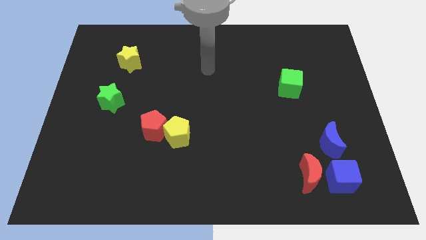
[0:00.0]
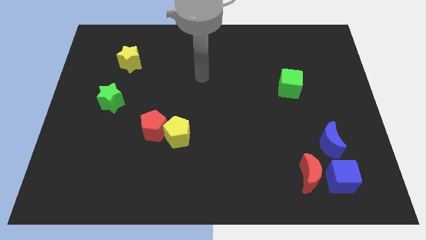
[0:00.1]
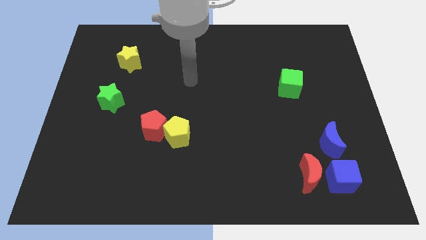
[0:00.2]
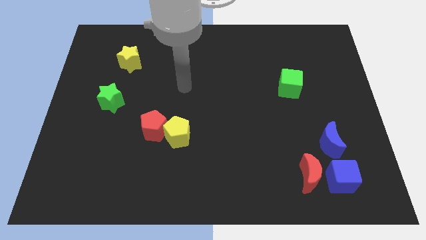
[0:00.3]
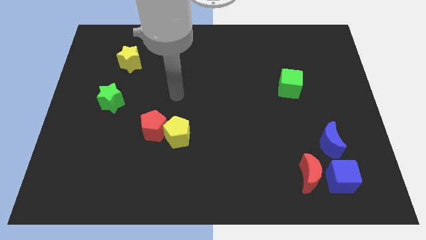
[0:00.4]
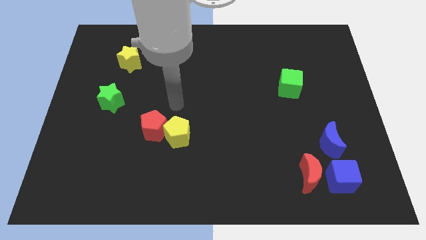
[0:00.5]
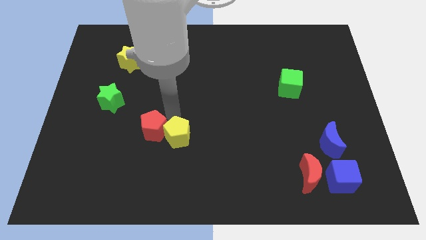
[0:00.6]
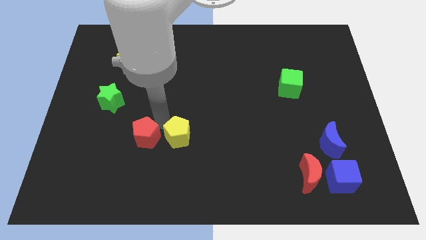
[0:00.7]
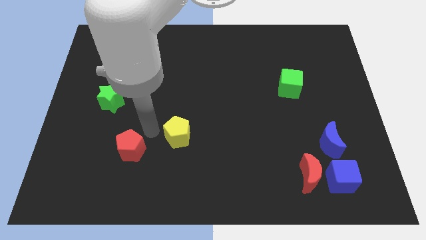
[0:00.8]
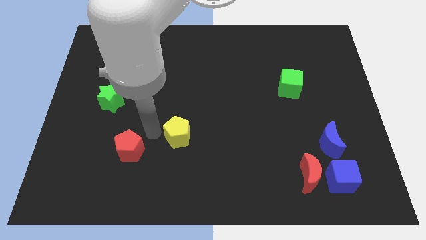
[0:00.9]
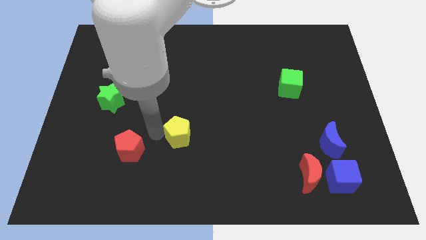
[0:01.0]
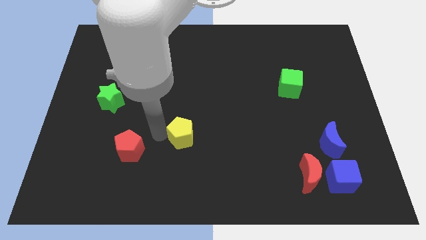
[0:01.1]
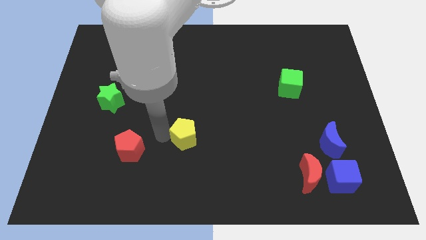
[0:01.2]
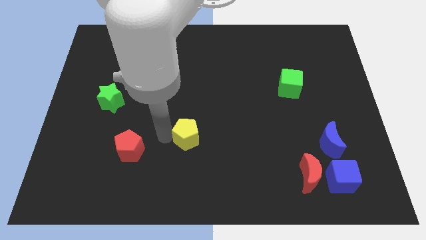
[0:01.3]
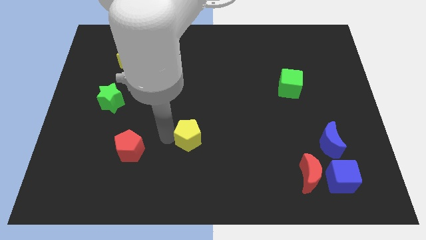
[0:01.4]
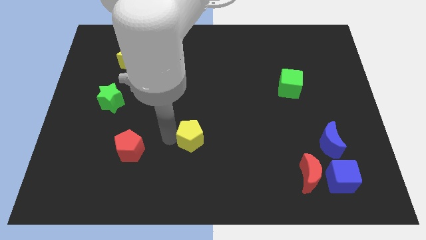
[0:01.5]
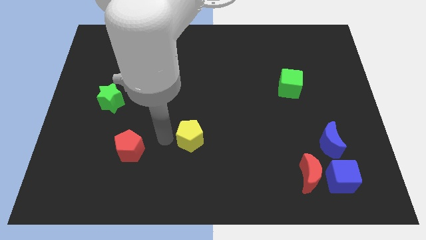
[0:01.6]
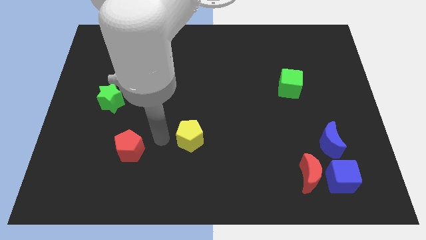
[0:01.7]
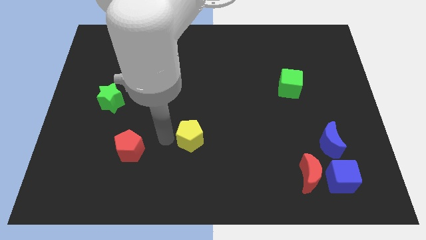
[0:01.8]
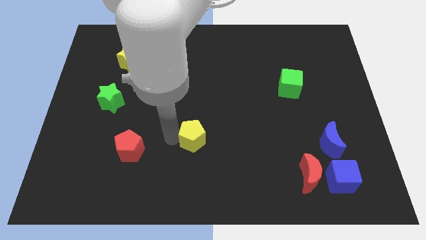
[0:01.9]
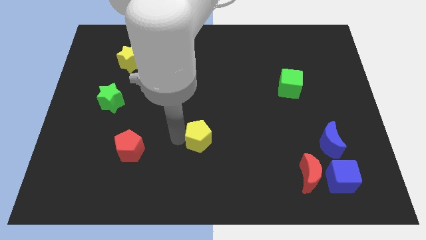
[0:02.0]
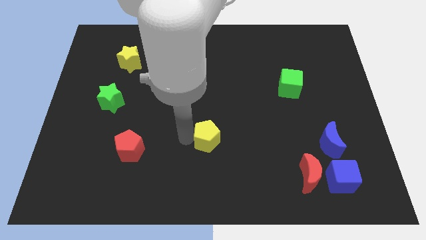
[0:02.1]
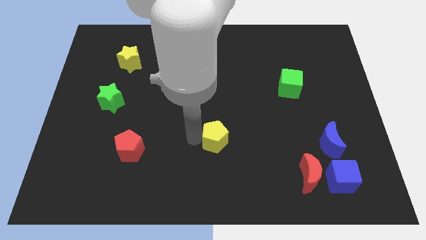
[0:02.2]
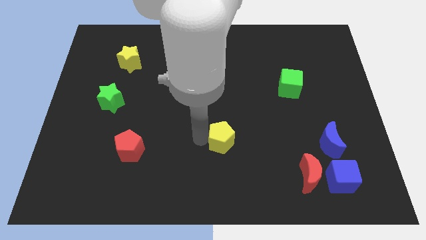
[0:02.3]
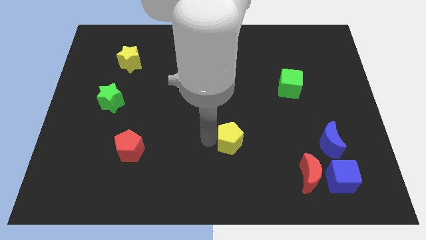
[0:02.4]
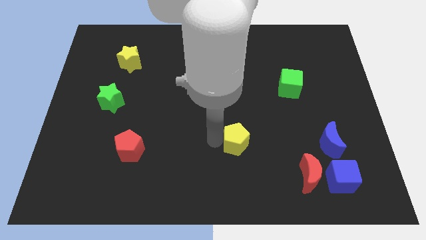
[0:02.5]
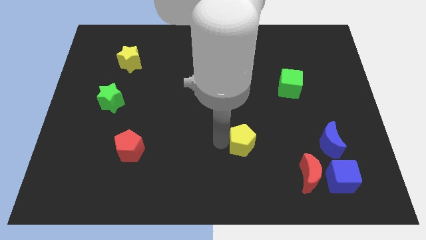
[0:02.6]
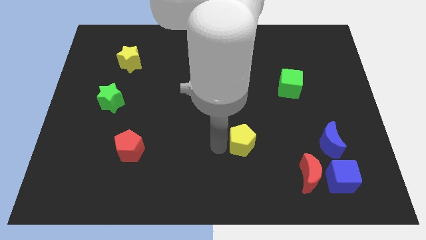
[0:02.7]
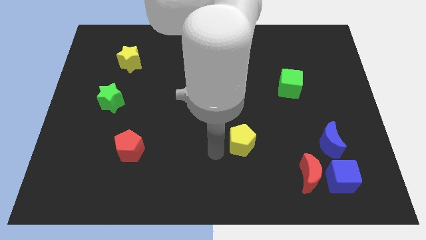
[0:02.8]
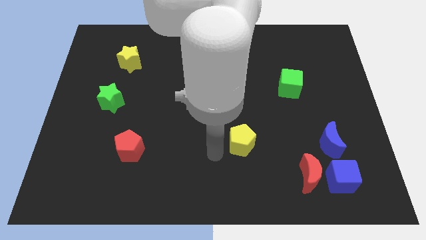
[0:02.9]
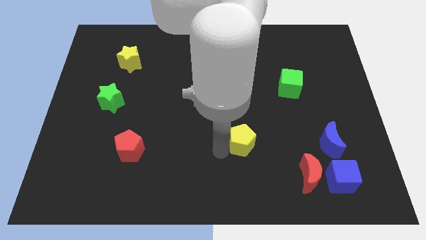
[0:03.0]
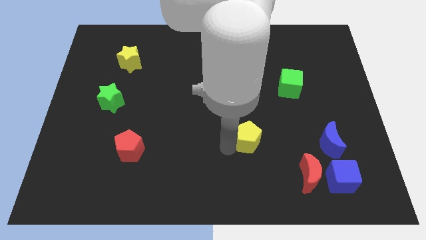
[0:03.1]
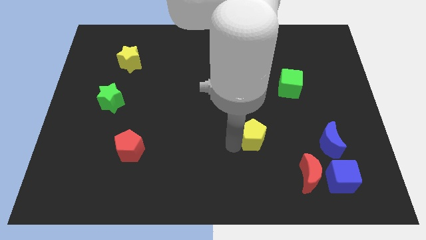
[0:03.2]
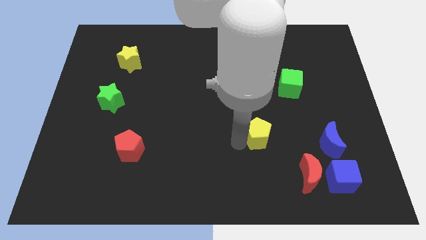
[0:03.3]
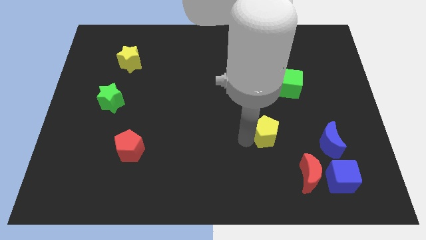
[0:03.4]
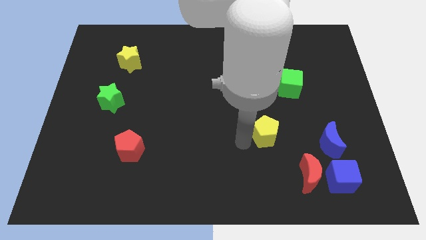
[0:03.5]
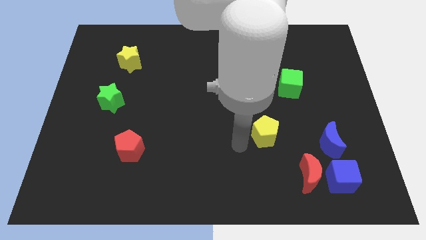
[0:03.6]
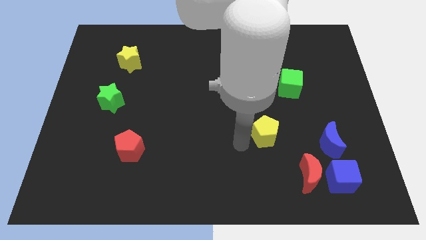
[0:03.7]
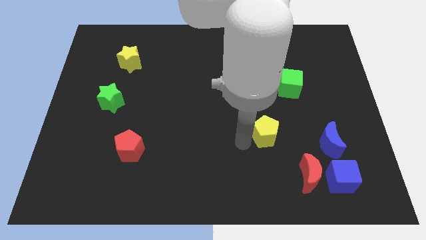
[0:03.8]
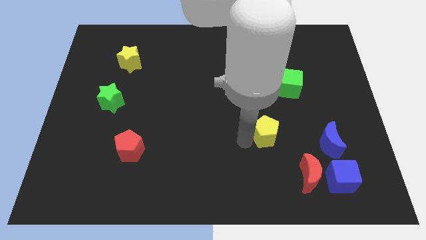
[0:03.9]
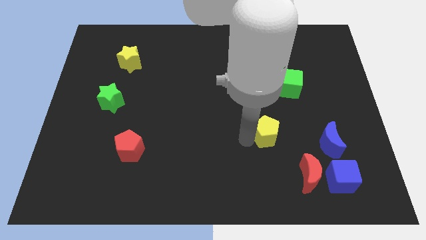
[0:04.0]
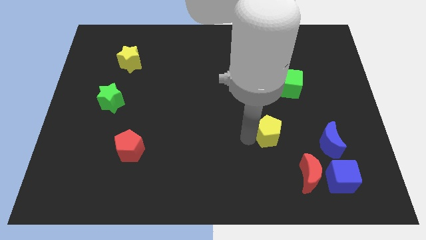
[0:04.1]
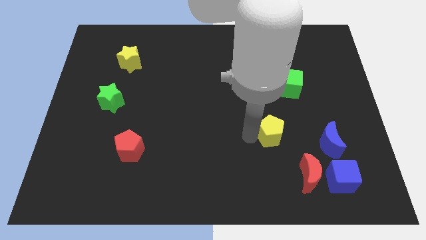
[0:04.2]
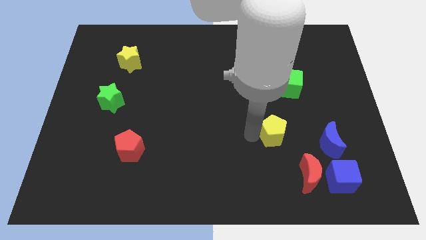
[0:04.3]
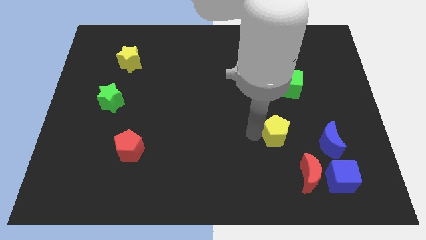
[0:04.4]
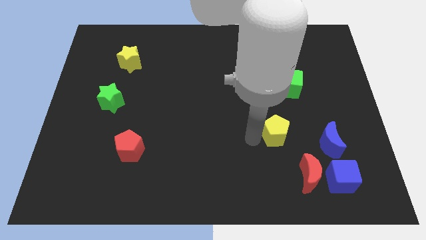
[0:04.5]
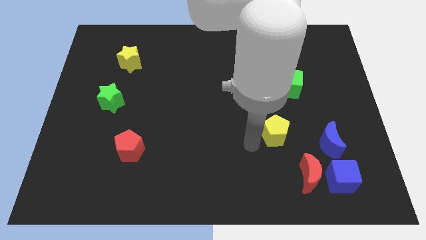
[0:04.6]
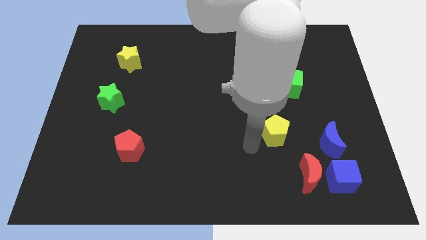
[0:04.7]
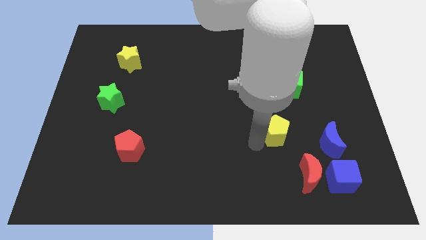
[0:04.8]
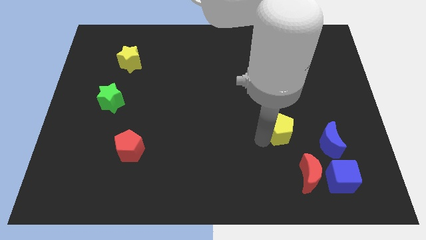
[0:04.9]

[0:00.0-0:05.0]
push the yellow pentagon to the bottom side of the green cube

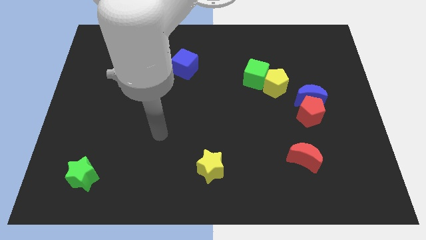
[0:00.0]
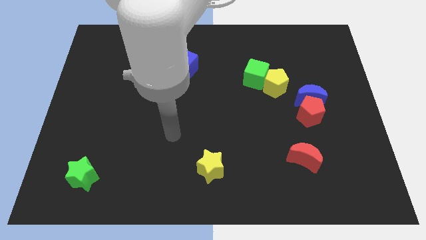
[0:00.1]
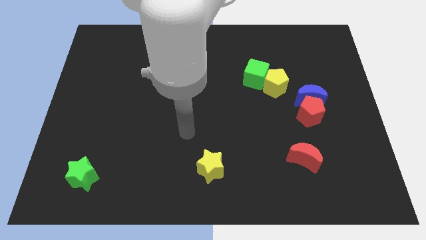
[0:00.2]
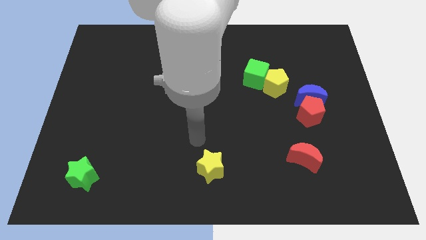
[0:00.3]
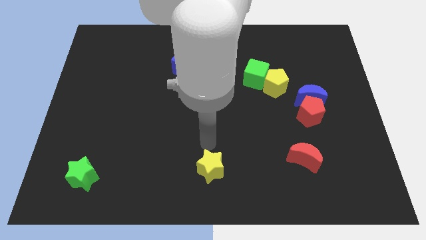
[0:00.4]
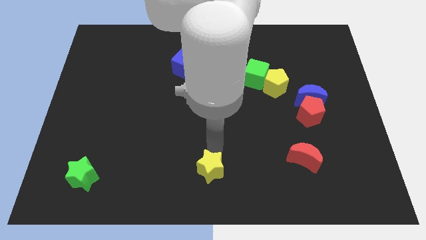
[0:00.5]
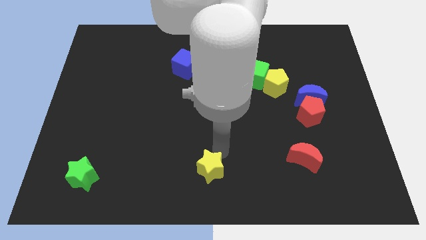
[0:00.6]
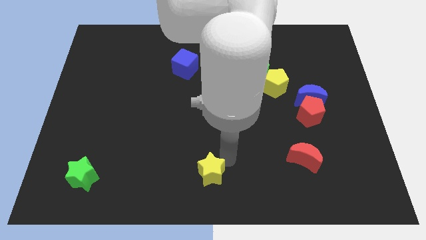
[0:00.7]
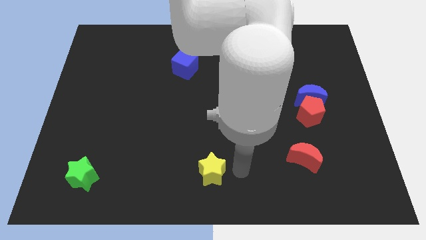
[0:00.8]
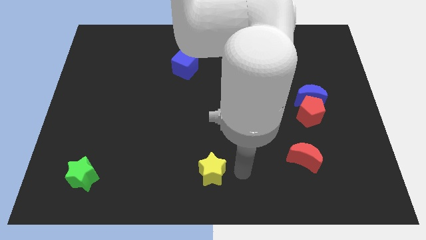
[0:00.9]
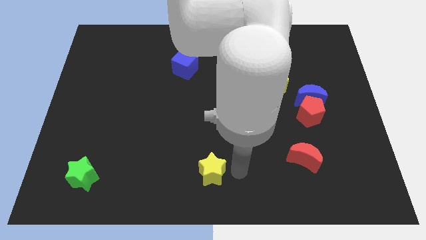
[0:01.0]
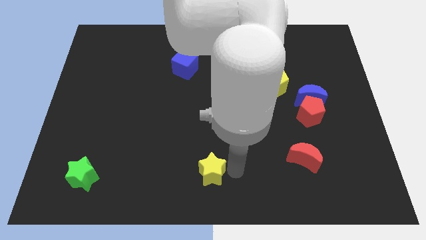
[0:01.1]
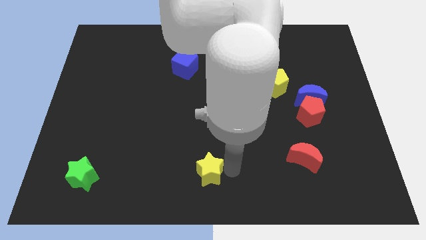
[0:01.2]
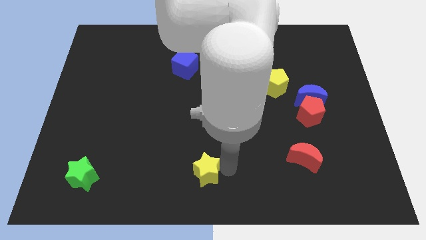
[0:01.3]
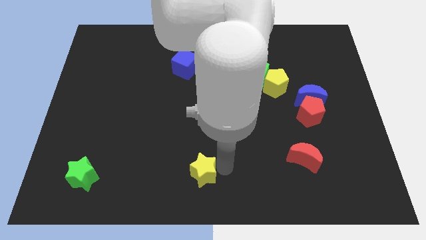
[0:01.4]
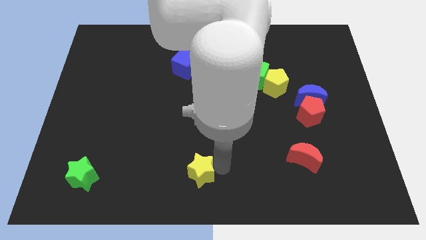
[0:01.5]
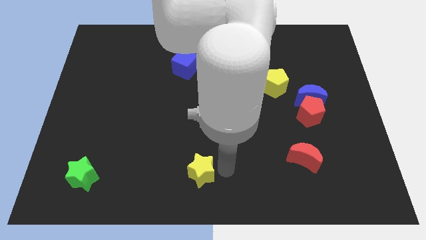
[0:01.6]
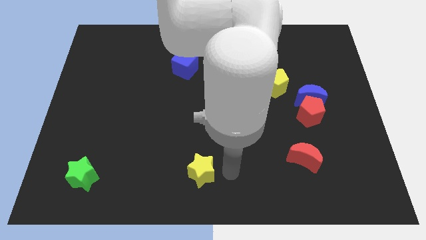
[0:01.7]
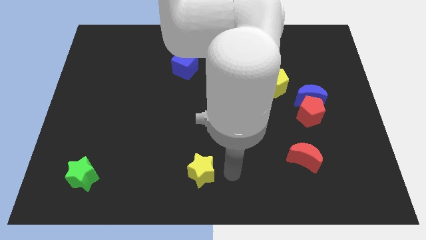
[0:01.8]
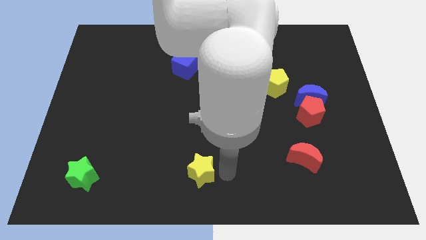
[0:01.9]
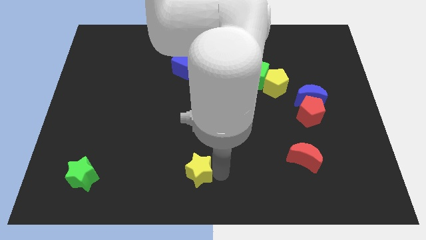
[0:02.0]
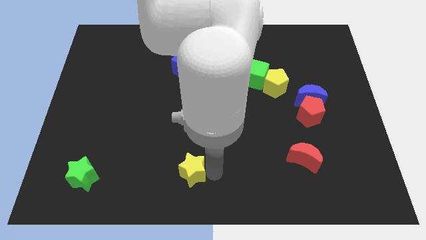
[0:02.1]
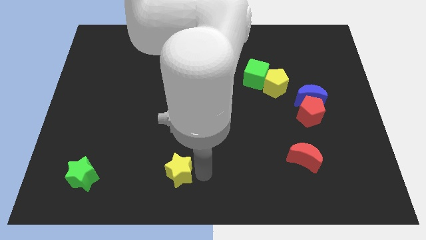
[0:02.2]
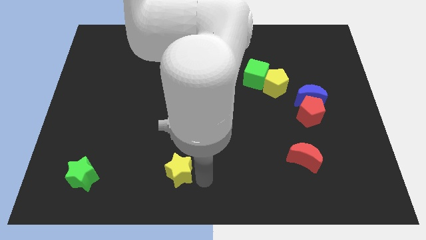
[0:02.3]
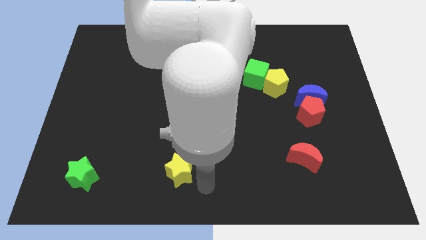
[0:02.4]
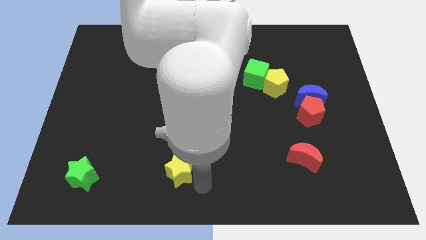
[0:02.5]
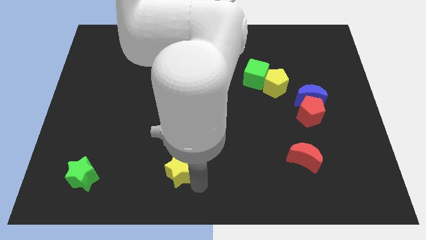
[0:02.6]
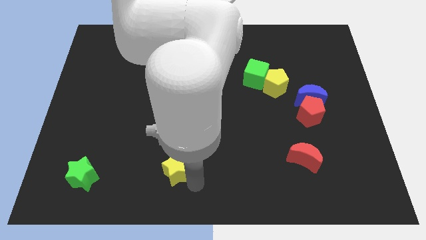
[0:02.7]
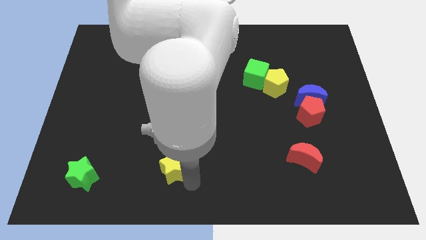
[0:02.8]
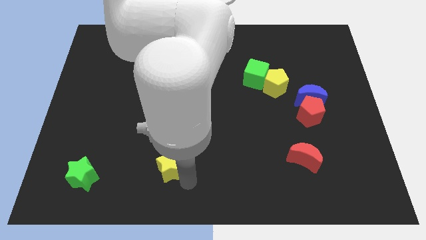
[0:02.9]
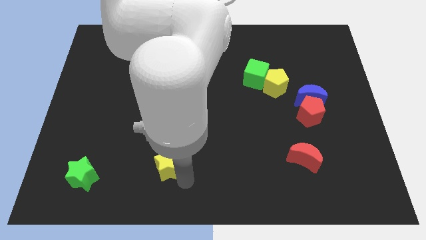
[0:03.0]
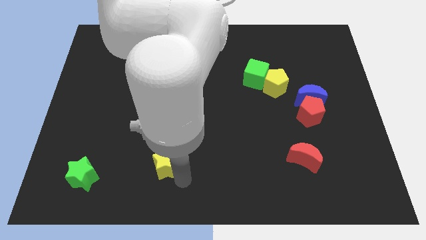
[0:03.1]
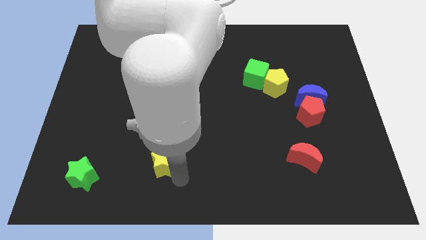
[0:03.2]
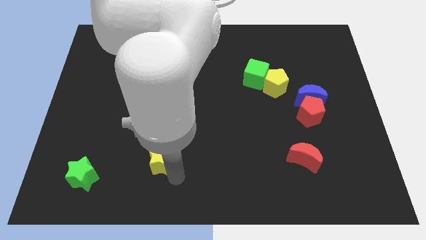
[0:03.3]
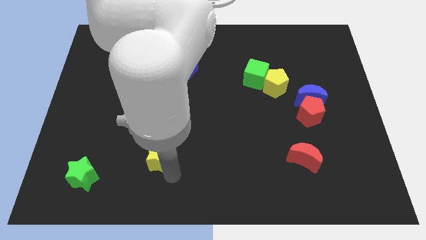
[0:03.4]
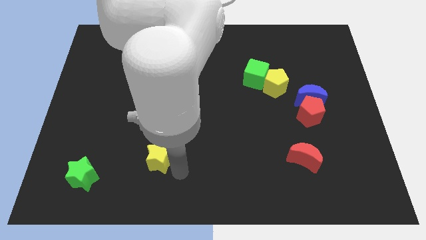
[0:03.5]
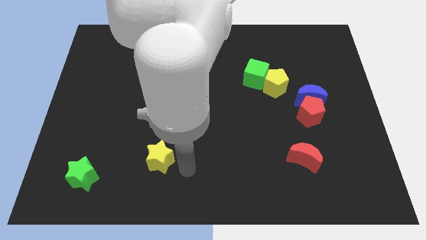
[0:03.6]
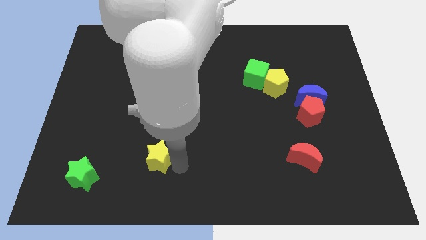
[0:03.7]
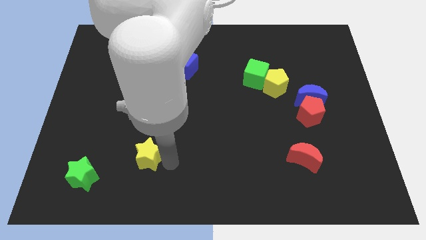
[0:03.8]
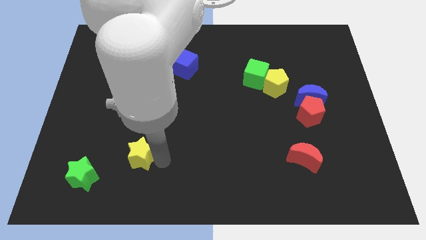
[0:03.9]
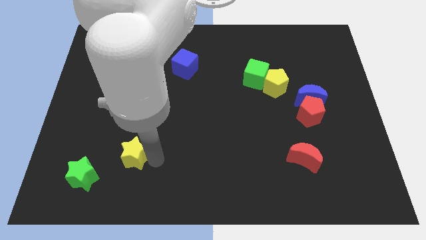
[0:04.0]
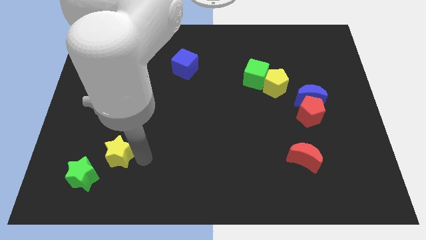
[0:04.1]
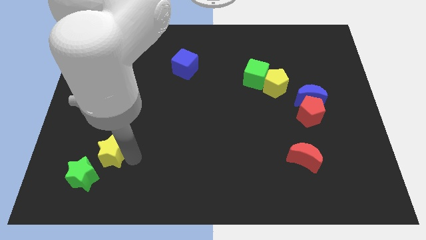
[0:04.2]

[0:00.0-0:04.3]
push the yellow star above the green star
